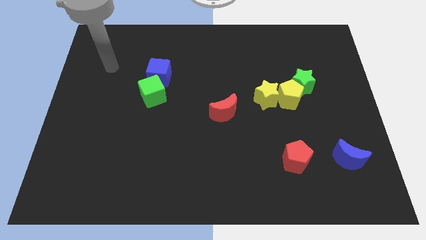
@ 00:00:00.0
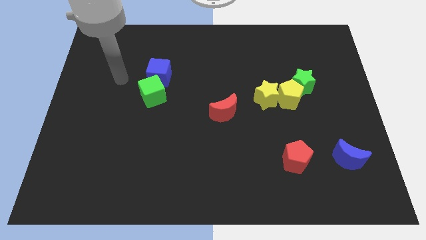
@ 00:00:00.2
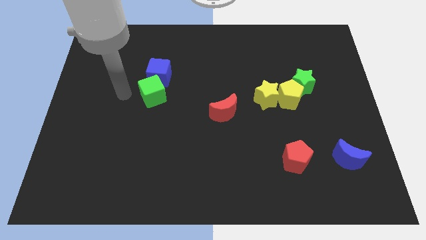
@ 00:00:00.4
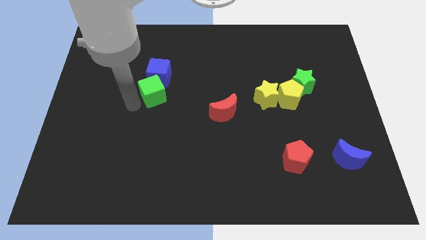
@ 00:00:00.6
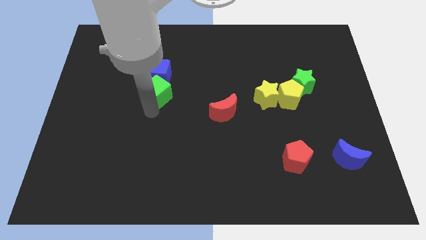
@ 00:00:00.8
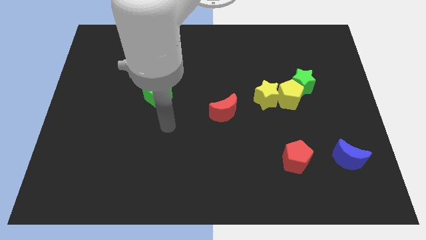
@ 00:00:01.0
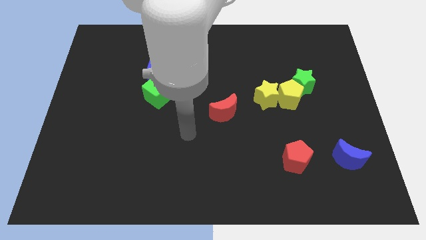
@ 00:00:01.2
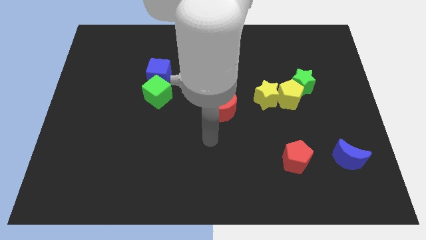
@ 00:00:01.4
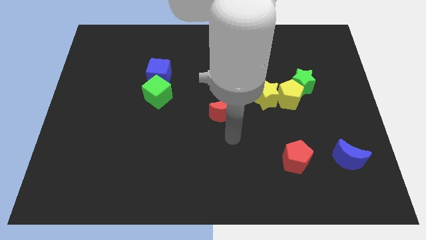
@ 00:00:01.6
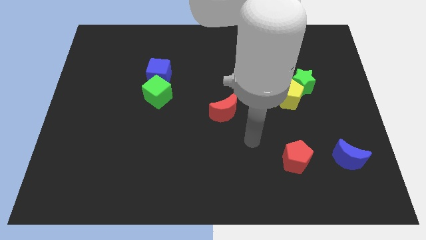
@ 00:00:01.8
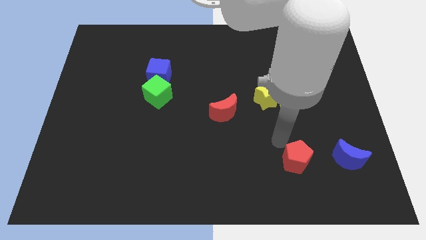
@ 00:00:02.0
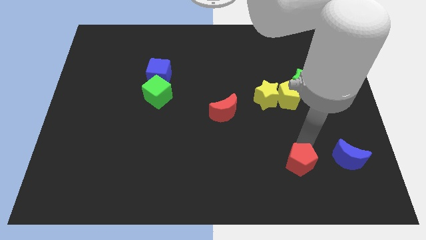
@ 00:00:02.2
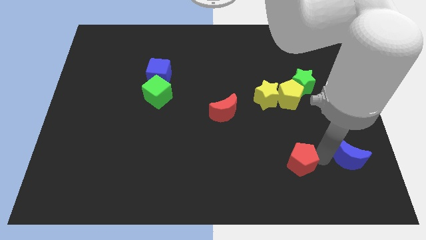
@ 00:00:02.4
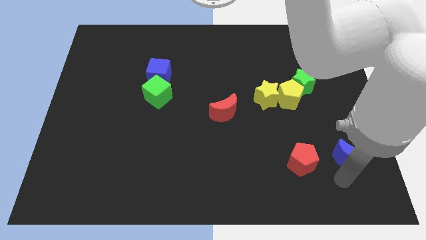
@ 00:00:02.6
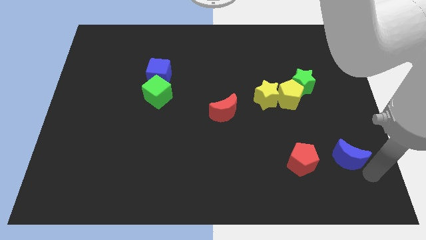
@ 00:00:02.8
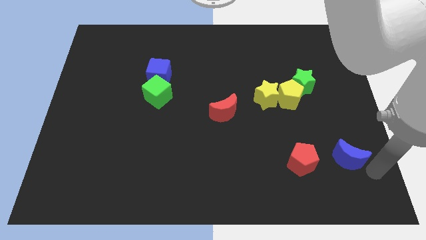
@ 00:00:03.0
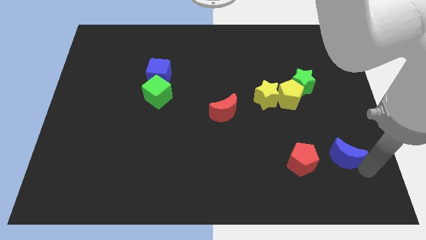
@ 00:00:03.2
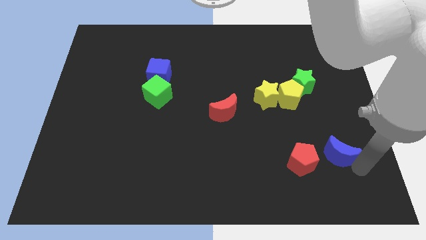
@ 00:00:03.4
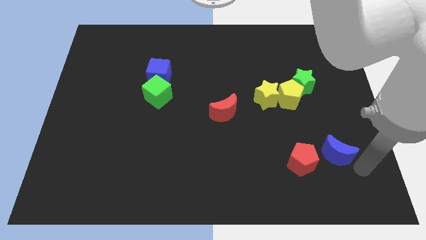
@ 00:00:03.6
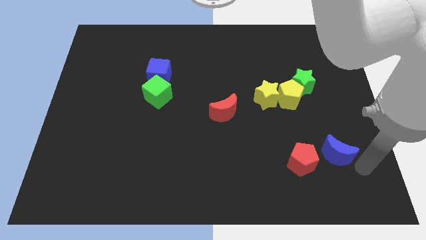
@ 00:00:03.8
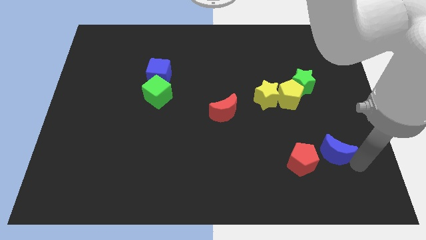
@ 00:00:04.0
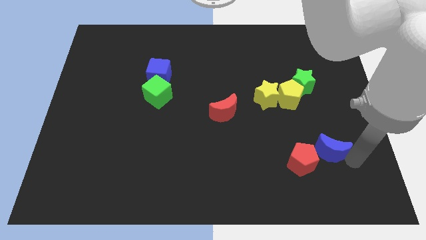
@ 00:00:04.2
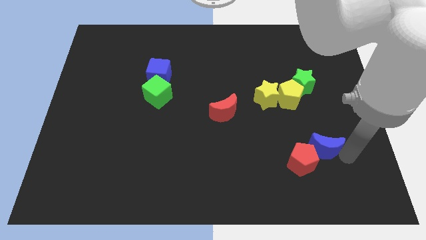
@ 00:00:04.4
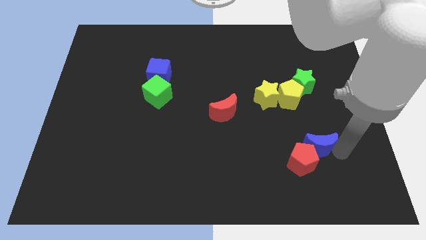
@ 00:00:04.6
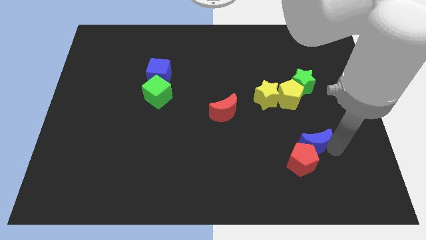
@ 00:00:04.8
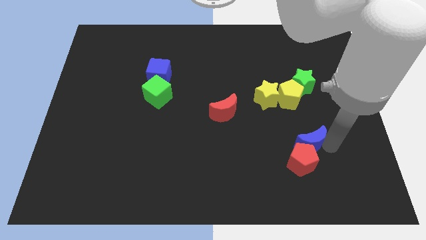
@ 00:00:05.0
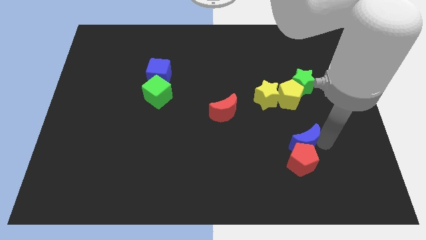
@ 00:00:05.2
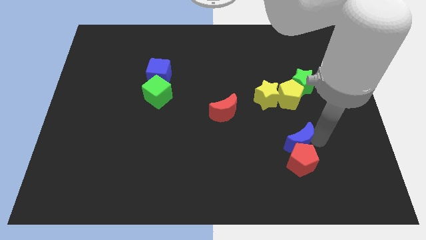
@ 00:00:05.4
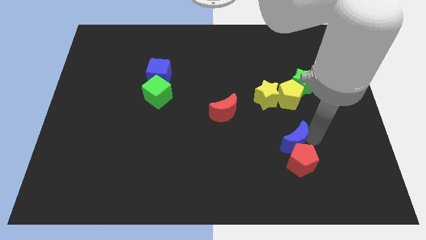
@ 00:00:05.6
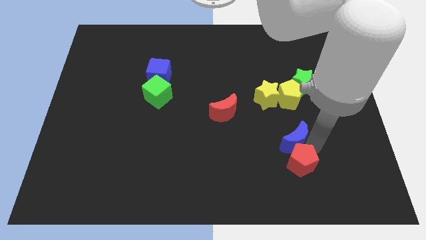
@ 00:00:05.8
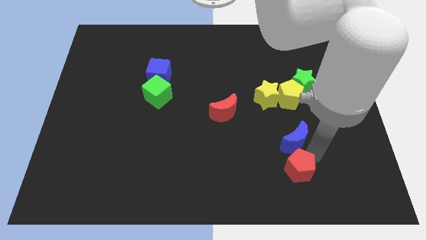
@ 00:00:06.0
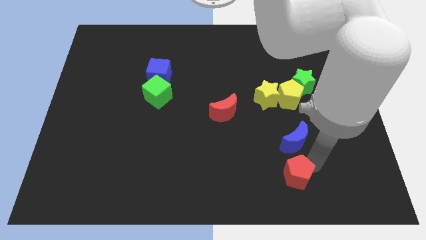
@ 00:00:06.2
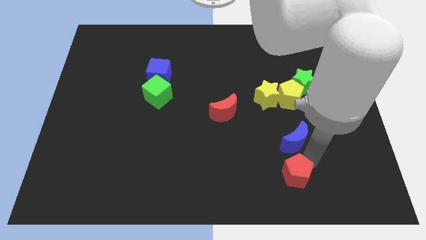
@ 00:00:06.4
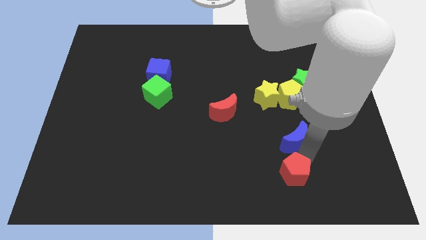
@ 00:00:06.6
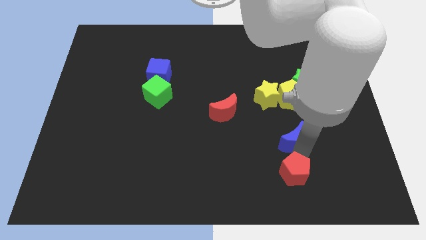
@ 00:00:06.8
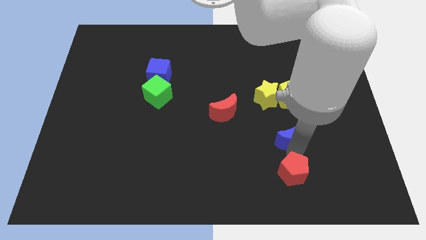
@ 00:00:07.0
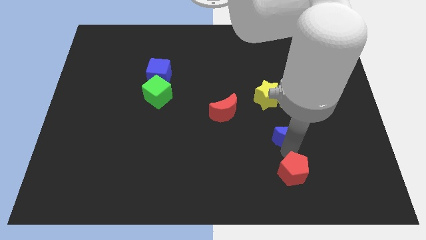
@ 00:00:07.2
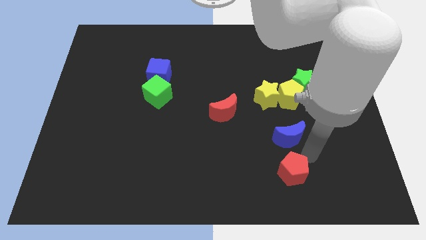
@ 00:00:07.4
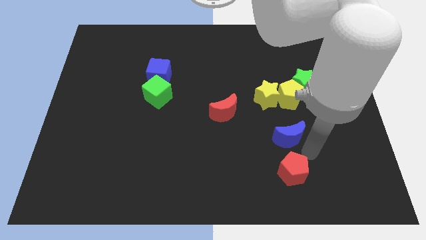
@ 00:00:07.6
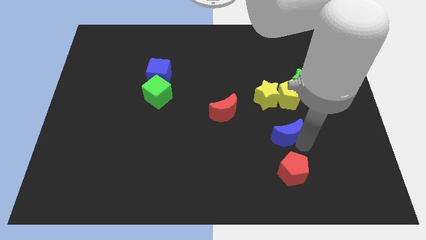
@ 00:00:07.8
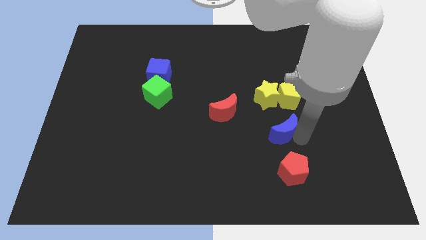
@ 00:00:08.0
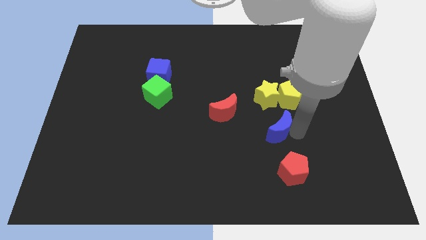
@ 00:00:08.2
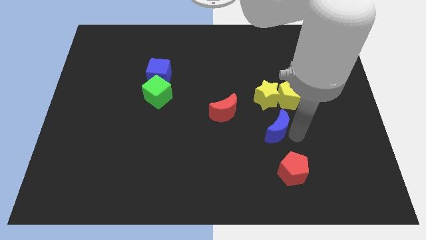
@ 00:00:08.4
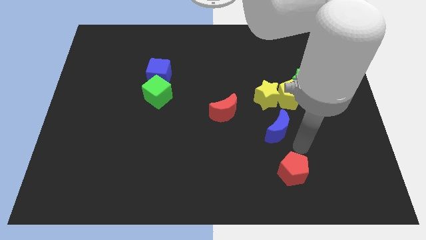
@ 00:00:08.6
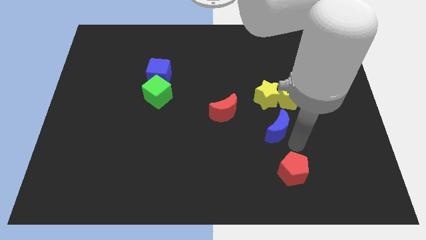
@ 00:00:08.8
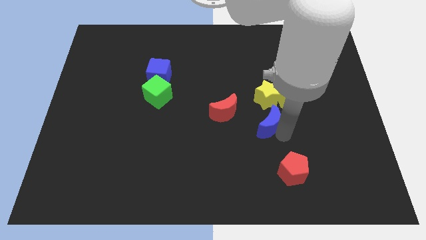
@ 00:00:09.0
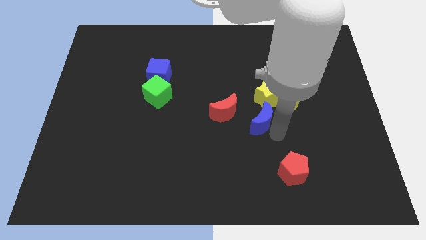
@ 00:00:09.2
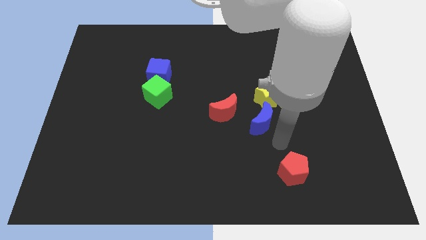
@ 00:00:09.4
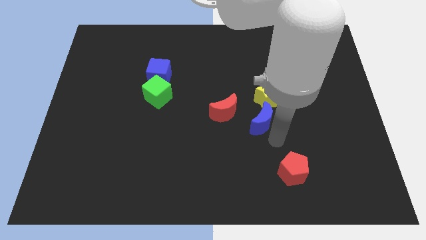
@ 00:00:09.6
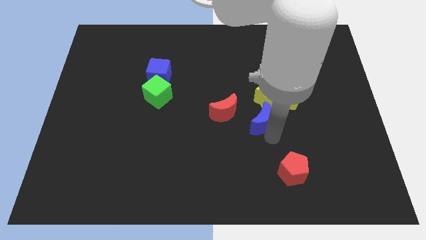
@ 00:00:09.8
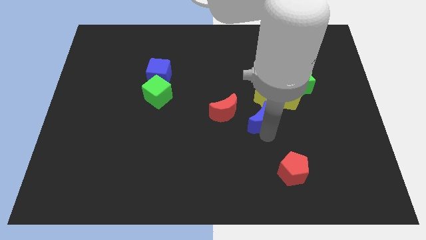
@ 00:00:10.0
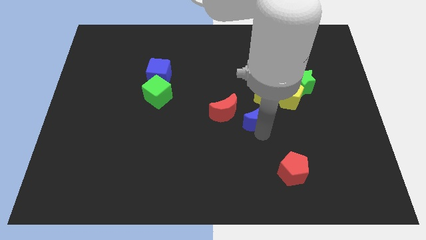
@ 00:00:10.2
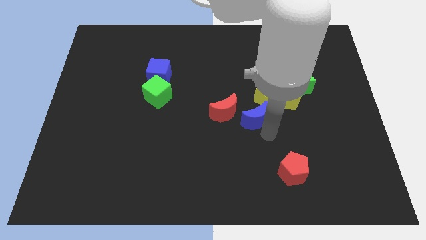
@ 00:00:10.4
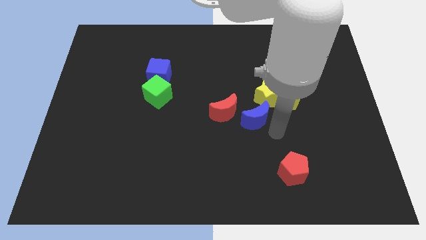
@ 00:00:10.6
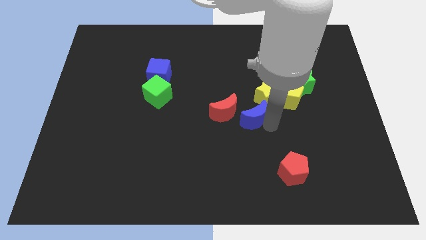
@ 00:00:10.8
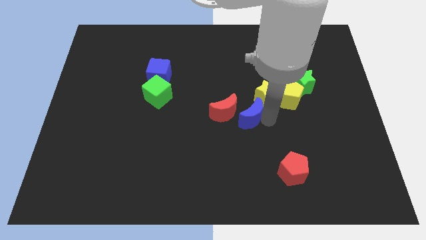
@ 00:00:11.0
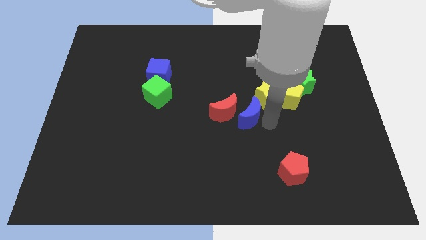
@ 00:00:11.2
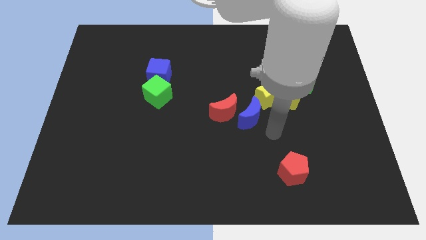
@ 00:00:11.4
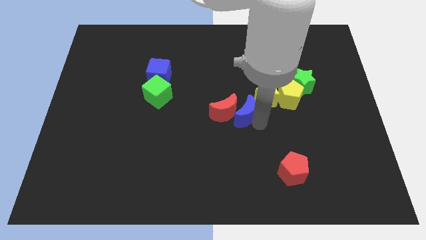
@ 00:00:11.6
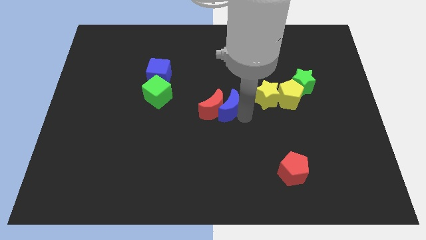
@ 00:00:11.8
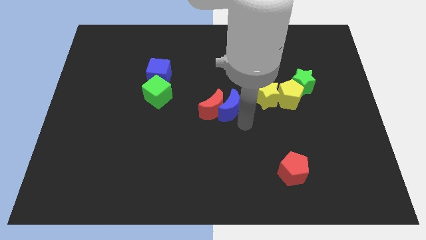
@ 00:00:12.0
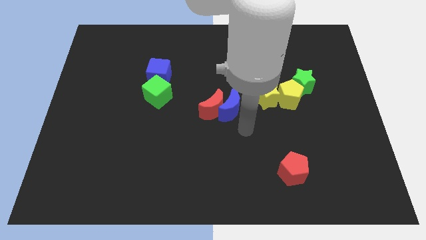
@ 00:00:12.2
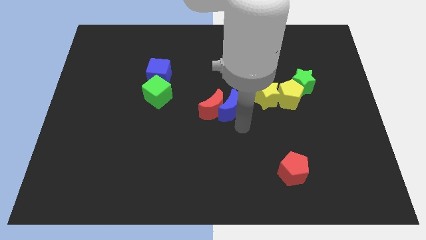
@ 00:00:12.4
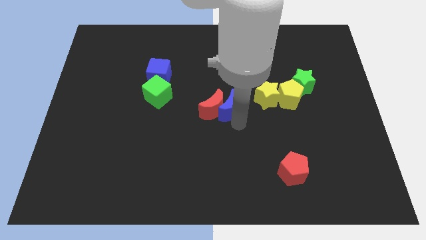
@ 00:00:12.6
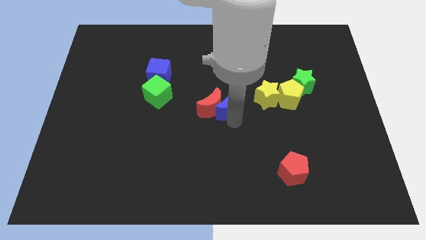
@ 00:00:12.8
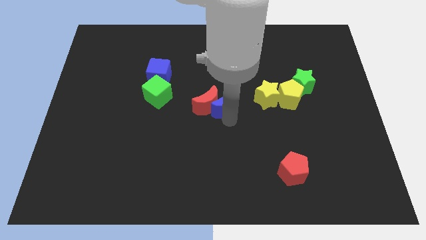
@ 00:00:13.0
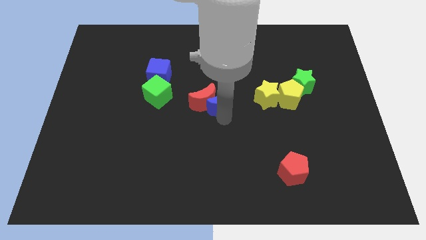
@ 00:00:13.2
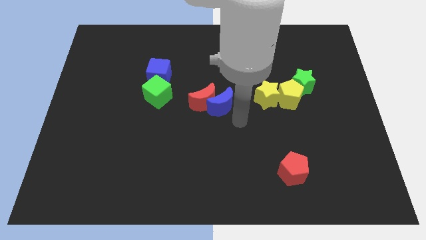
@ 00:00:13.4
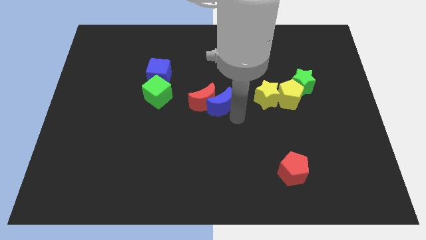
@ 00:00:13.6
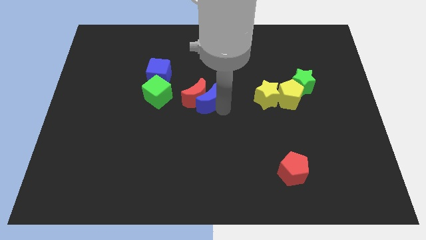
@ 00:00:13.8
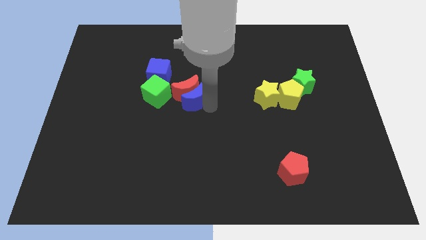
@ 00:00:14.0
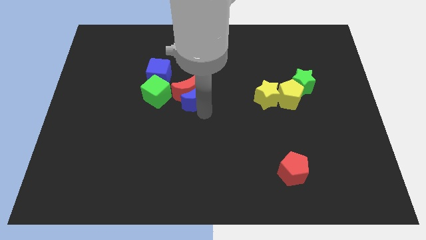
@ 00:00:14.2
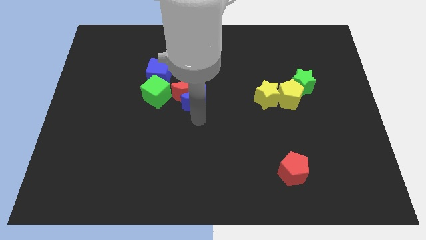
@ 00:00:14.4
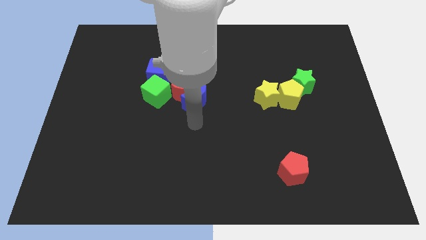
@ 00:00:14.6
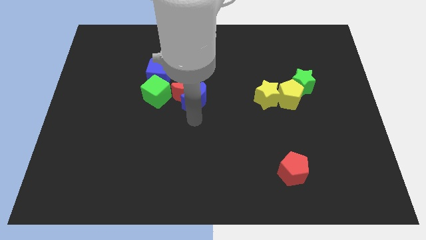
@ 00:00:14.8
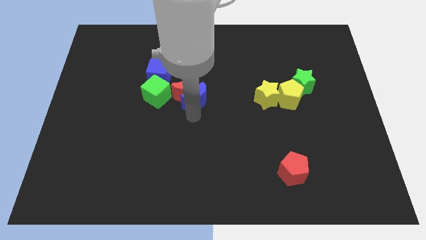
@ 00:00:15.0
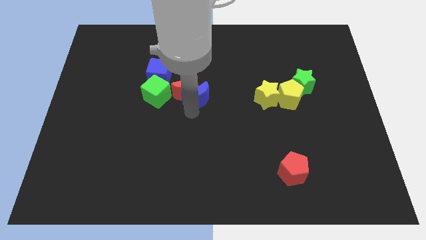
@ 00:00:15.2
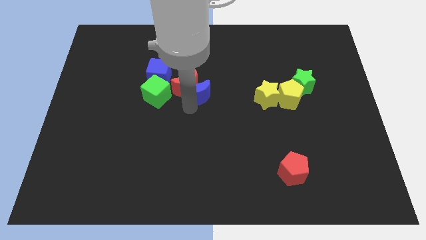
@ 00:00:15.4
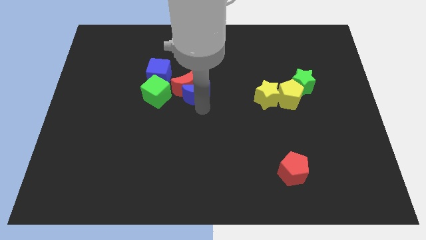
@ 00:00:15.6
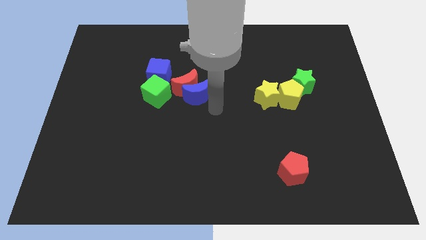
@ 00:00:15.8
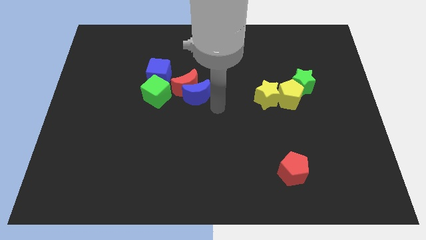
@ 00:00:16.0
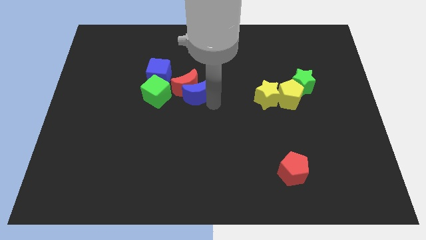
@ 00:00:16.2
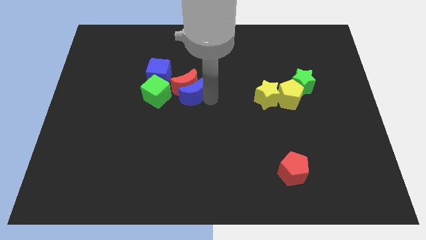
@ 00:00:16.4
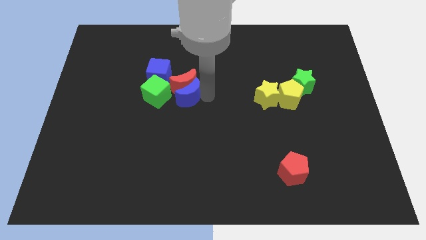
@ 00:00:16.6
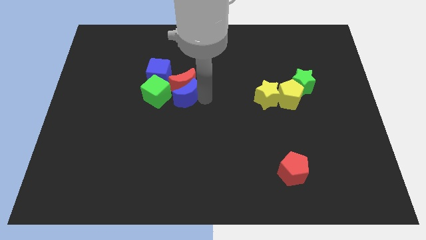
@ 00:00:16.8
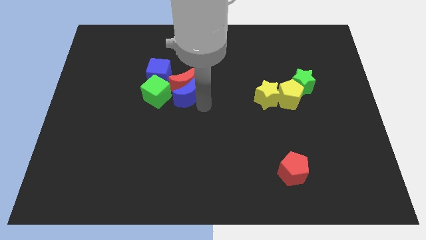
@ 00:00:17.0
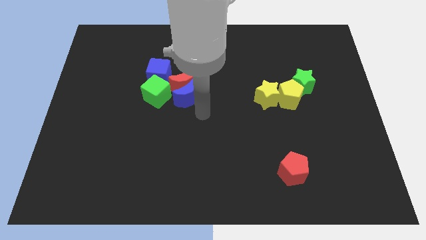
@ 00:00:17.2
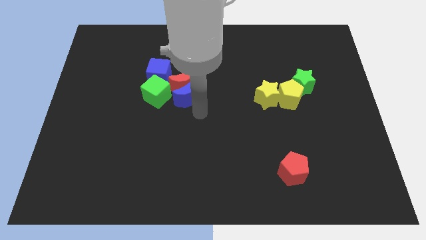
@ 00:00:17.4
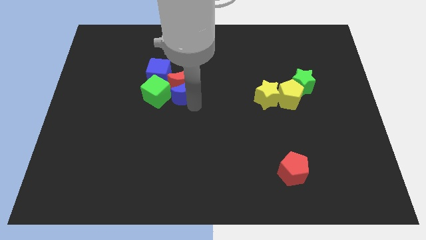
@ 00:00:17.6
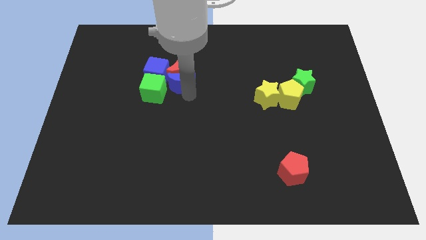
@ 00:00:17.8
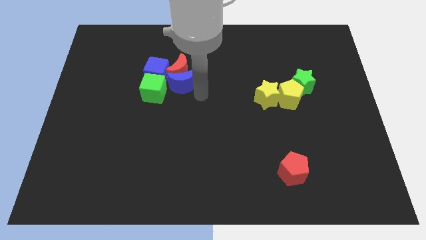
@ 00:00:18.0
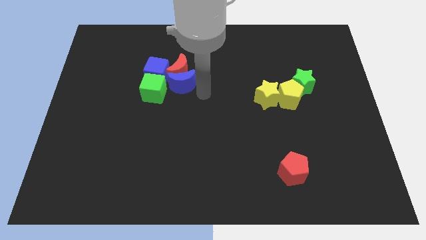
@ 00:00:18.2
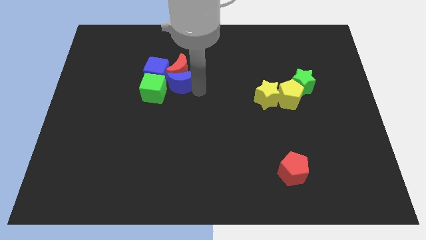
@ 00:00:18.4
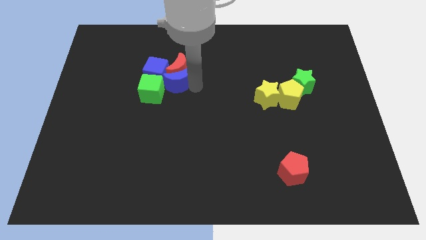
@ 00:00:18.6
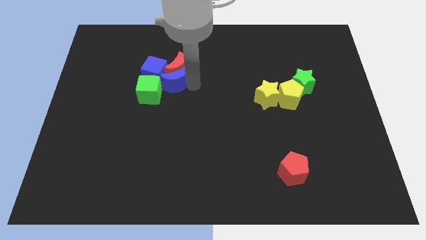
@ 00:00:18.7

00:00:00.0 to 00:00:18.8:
put the blue moon next to the blue cube
